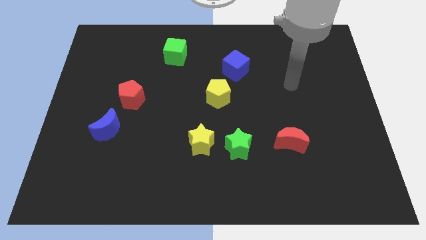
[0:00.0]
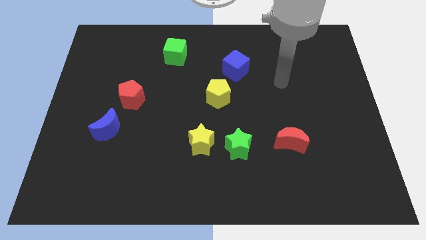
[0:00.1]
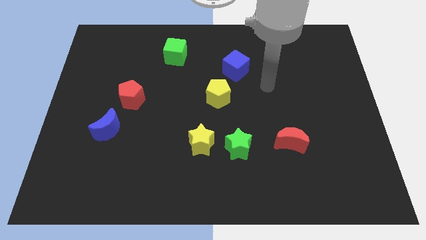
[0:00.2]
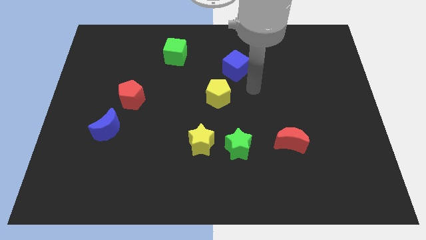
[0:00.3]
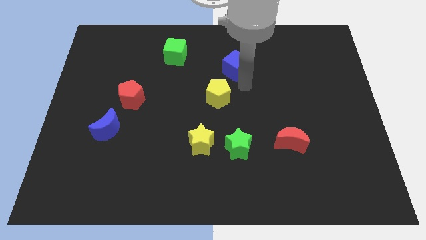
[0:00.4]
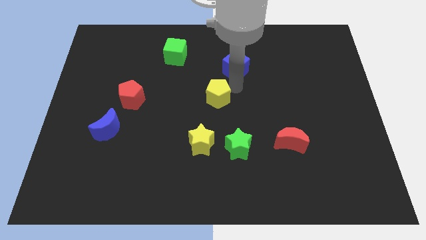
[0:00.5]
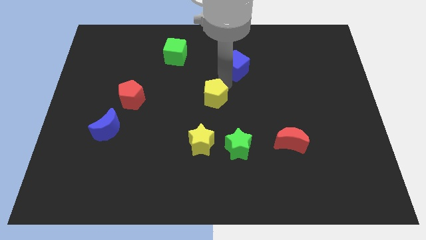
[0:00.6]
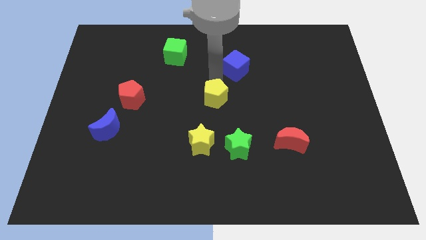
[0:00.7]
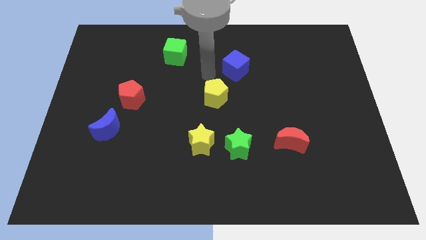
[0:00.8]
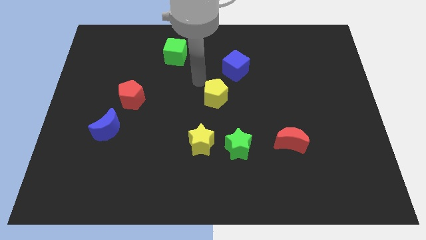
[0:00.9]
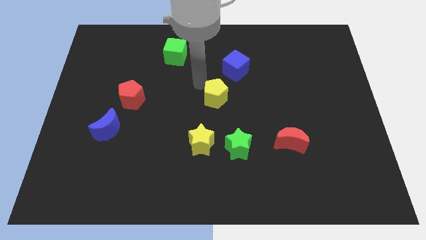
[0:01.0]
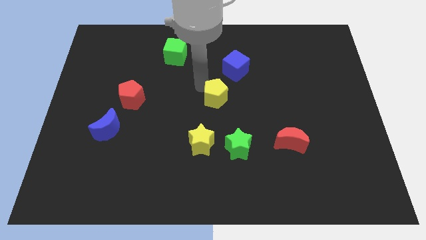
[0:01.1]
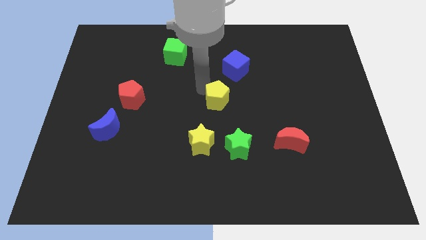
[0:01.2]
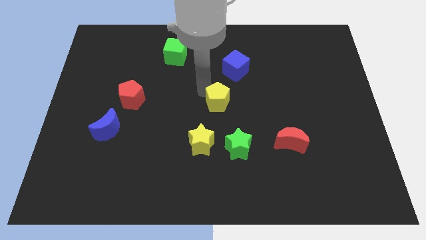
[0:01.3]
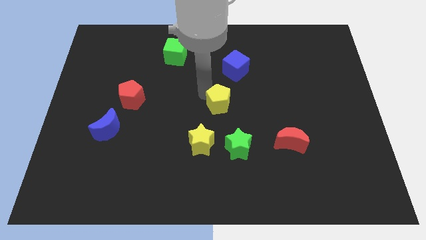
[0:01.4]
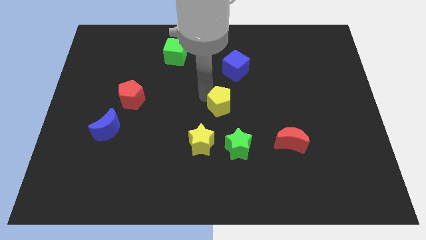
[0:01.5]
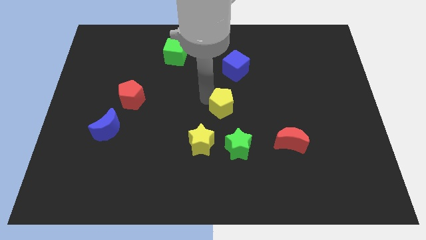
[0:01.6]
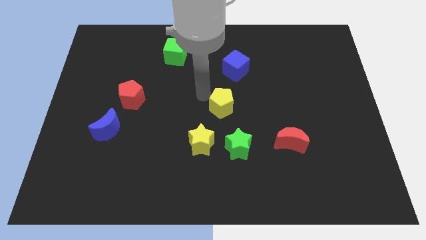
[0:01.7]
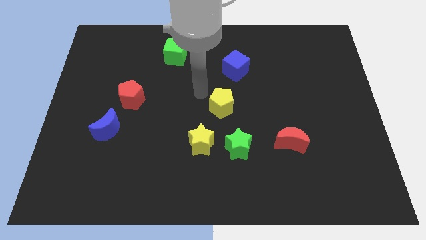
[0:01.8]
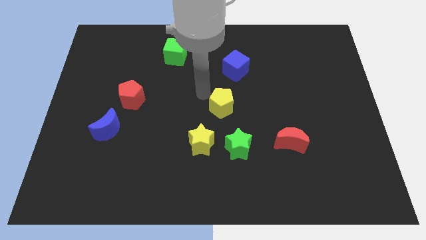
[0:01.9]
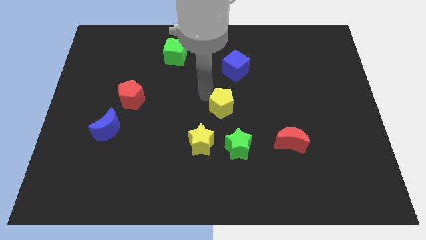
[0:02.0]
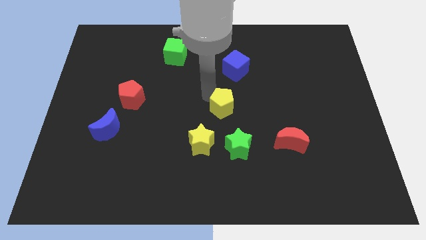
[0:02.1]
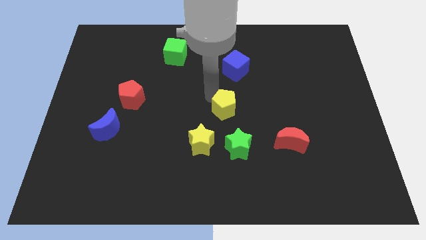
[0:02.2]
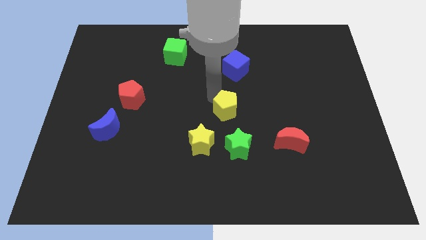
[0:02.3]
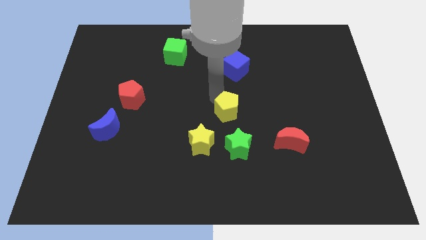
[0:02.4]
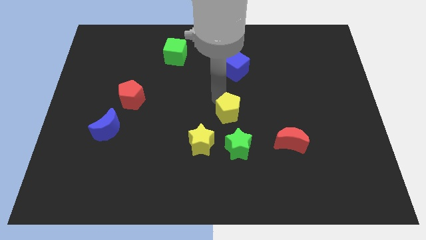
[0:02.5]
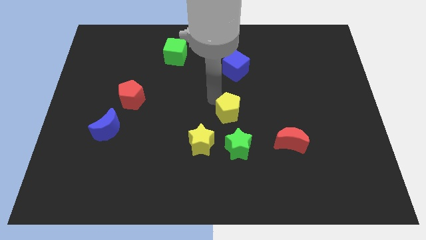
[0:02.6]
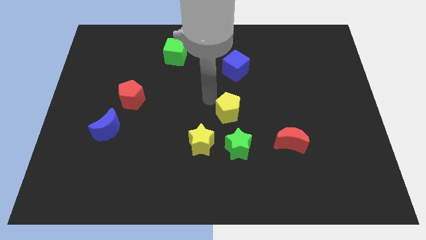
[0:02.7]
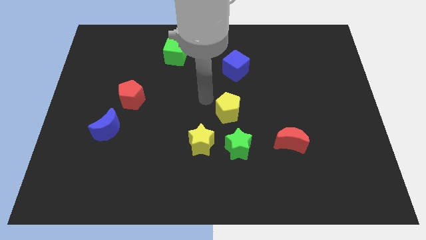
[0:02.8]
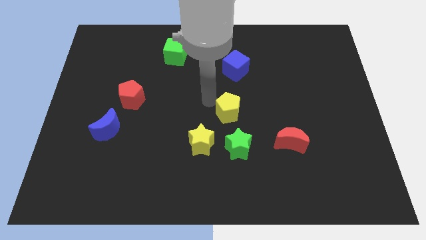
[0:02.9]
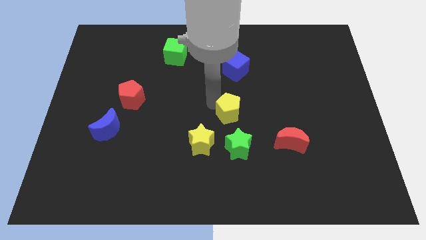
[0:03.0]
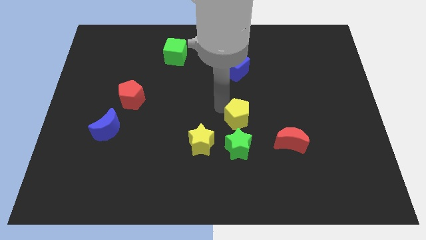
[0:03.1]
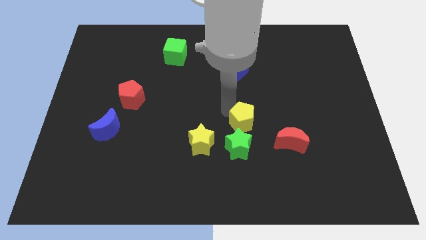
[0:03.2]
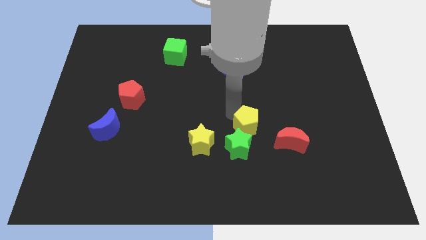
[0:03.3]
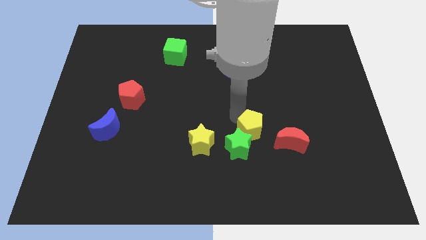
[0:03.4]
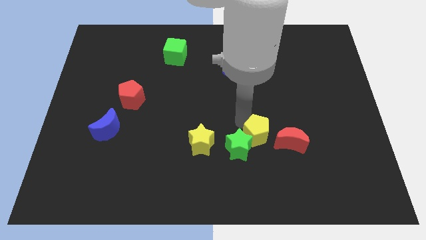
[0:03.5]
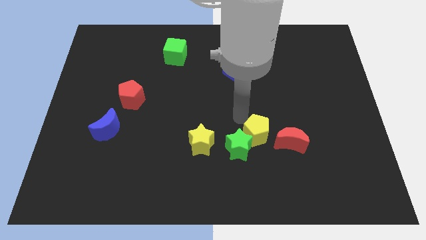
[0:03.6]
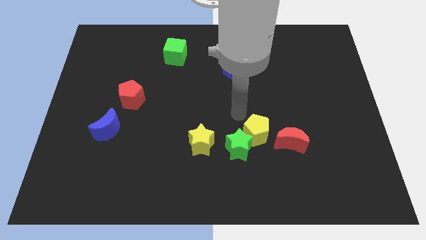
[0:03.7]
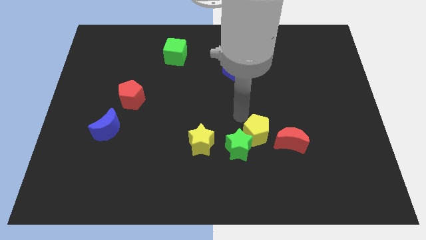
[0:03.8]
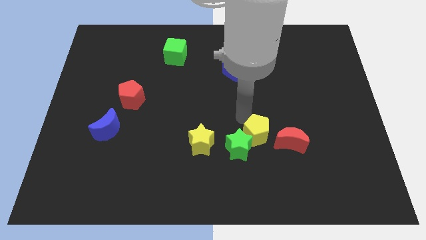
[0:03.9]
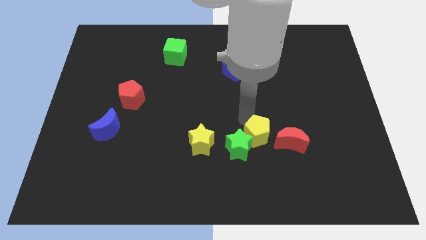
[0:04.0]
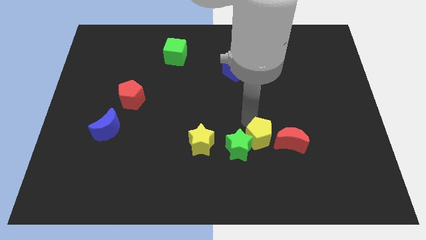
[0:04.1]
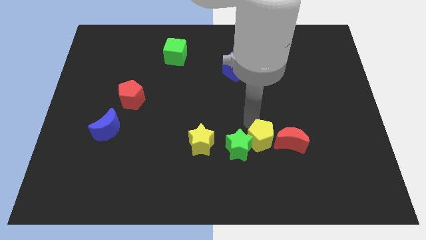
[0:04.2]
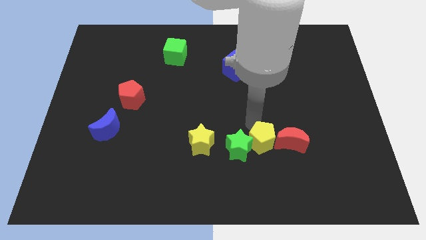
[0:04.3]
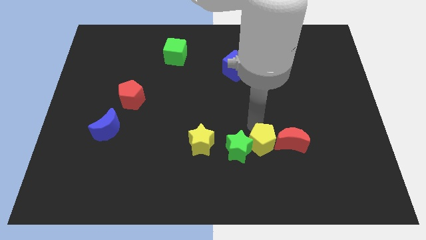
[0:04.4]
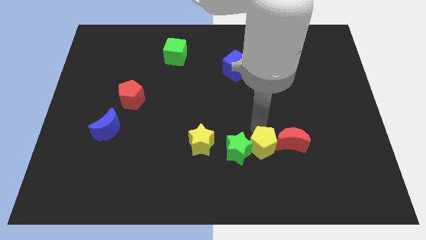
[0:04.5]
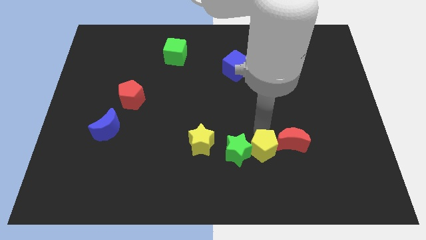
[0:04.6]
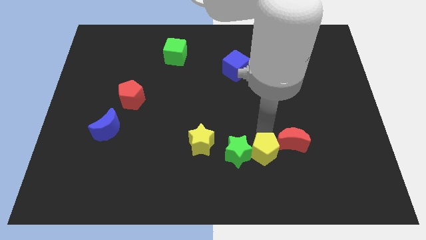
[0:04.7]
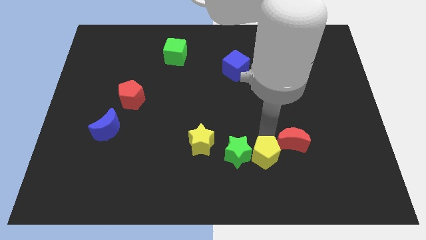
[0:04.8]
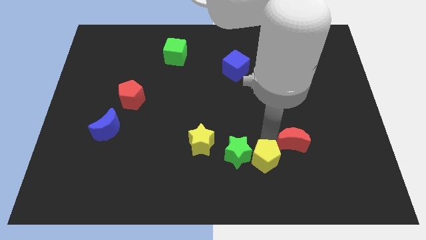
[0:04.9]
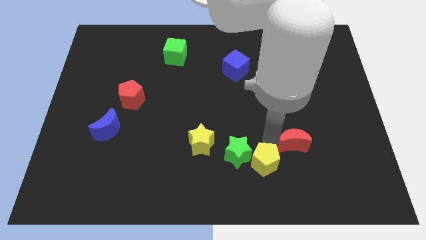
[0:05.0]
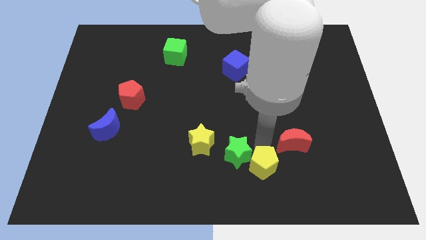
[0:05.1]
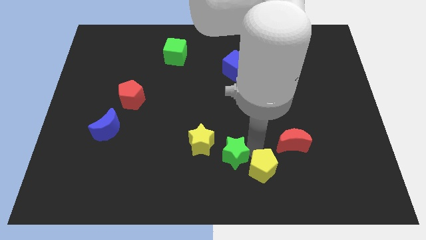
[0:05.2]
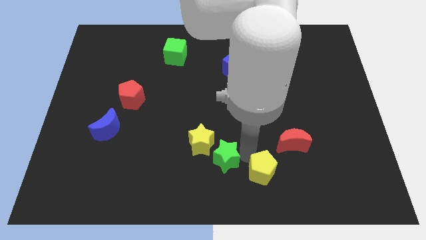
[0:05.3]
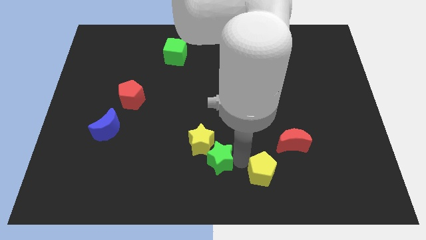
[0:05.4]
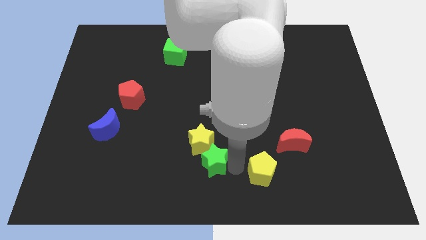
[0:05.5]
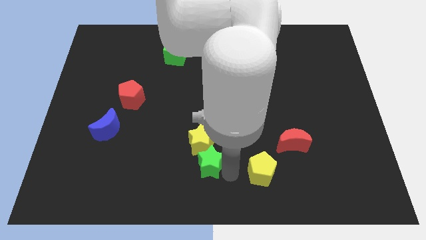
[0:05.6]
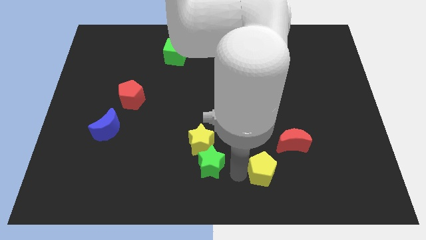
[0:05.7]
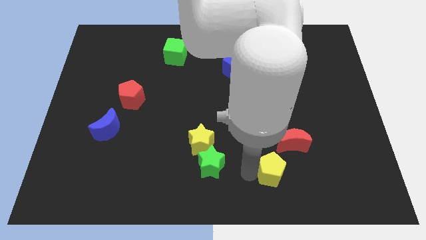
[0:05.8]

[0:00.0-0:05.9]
slide the yellow pentagon diagonally downwards and to the right

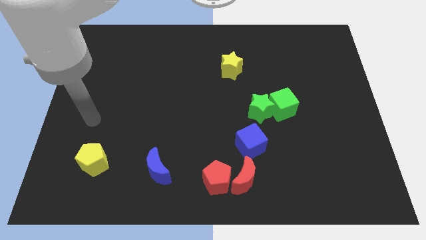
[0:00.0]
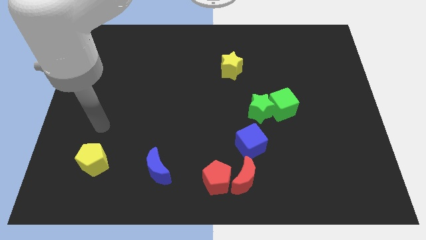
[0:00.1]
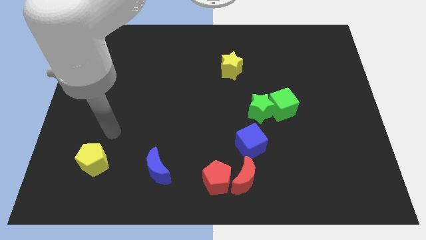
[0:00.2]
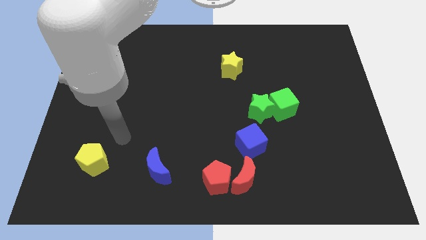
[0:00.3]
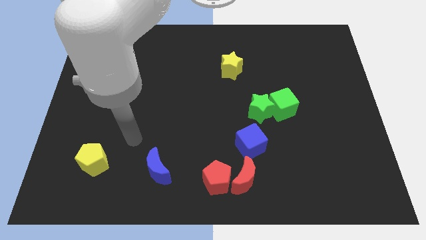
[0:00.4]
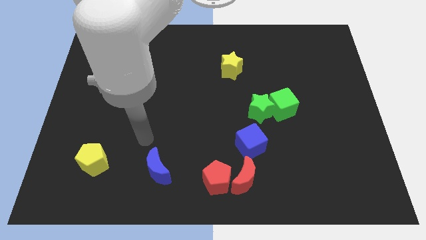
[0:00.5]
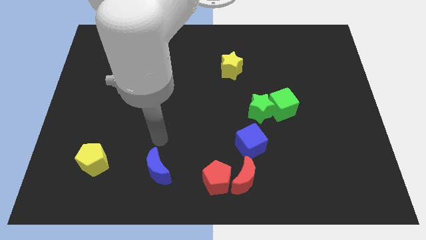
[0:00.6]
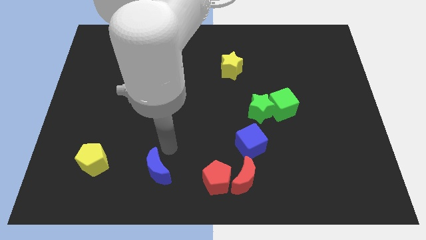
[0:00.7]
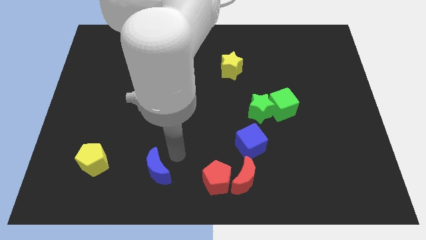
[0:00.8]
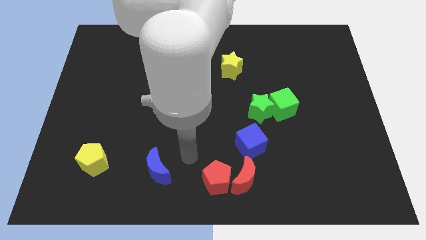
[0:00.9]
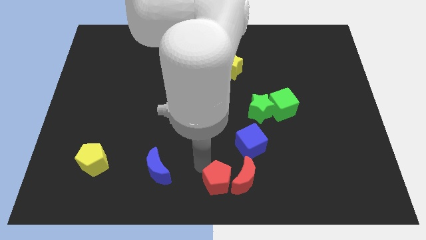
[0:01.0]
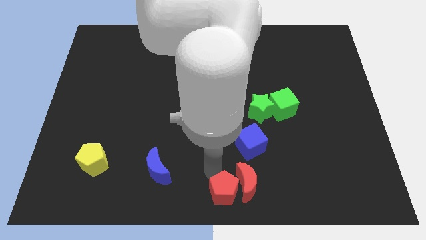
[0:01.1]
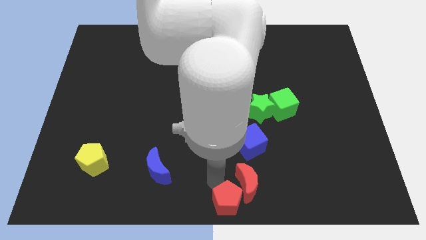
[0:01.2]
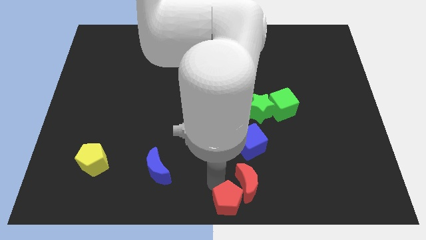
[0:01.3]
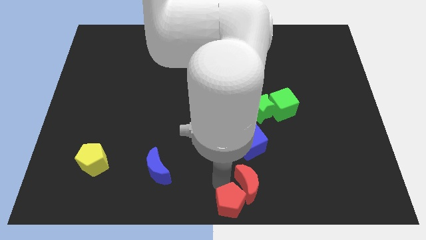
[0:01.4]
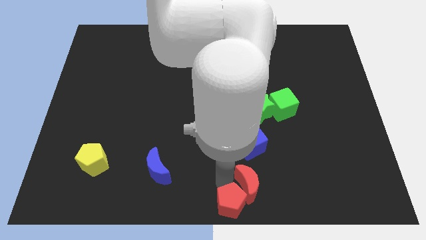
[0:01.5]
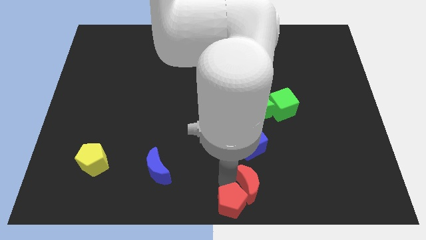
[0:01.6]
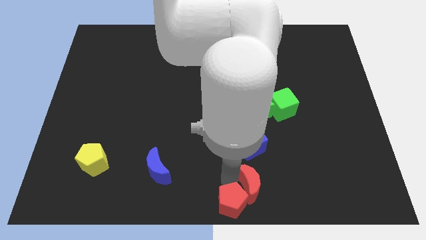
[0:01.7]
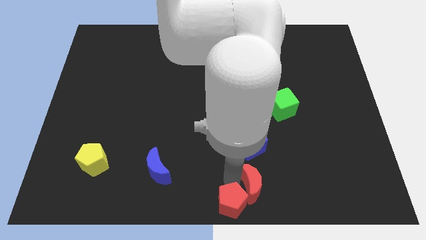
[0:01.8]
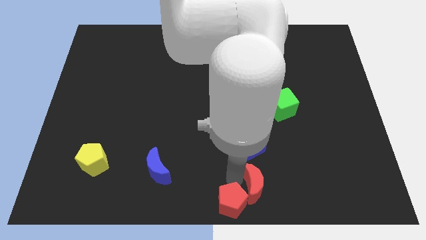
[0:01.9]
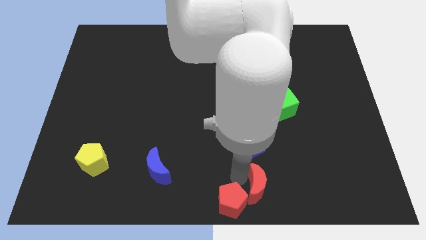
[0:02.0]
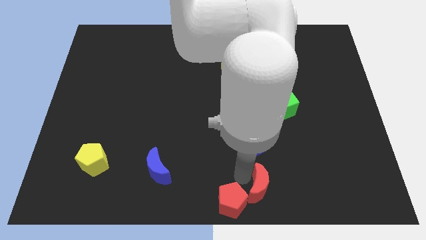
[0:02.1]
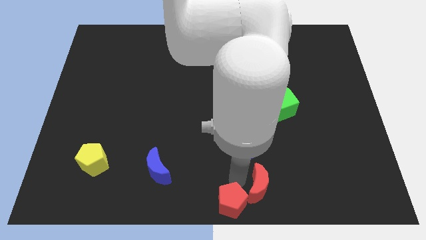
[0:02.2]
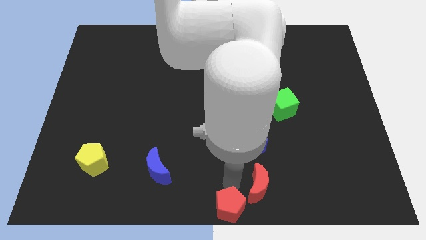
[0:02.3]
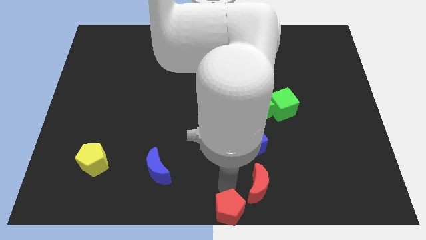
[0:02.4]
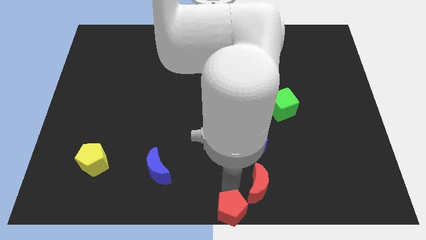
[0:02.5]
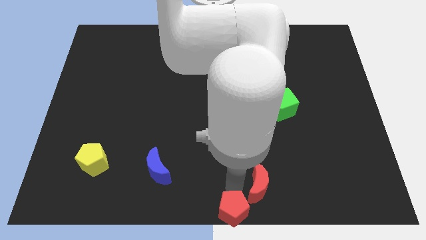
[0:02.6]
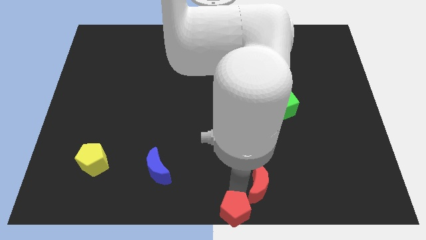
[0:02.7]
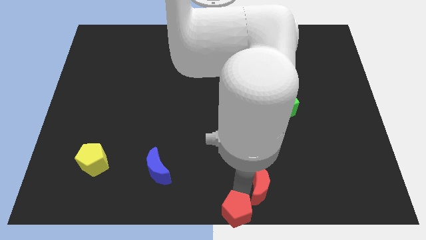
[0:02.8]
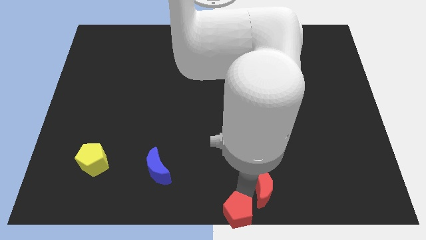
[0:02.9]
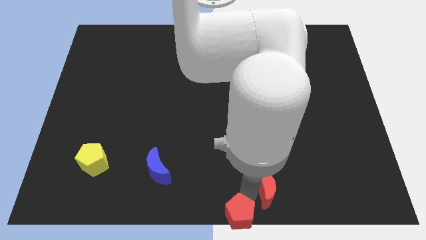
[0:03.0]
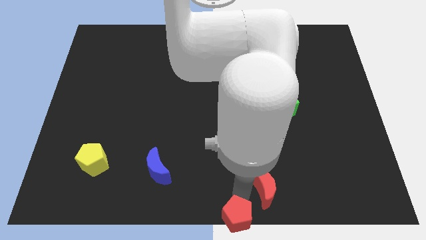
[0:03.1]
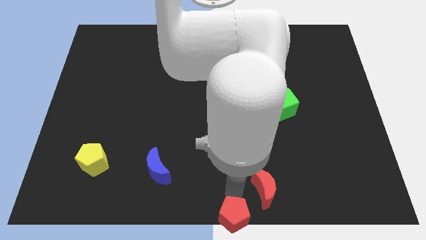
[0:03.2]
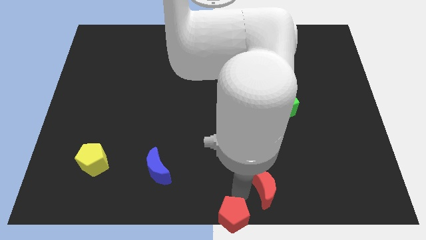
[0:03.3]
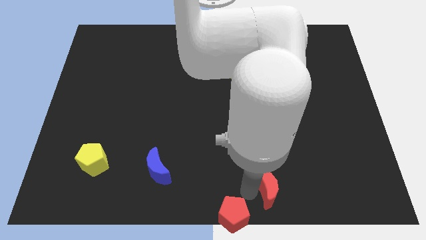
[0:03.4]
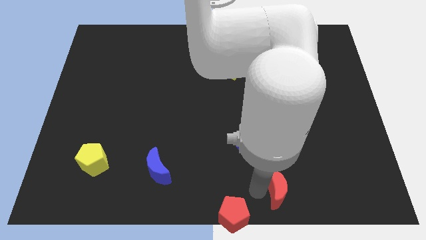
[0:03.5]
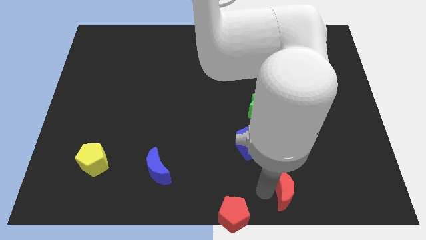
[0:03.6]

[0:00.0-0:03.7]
slightly move the red moon right
